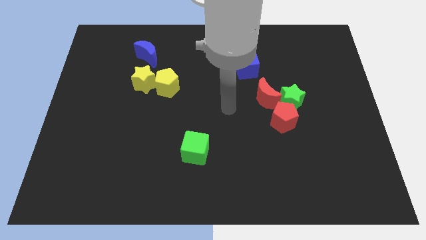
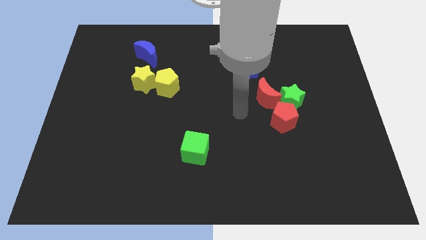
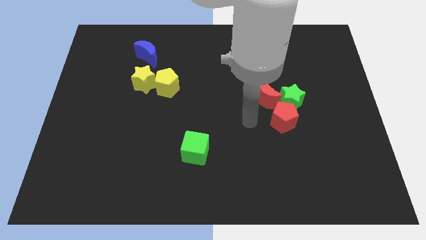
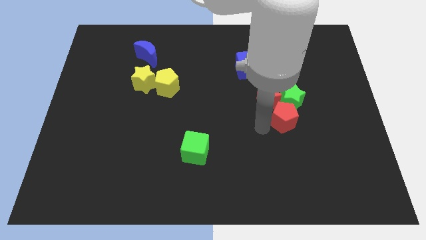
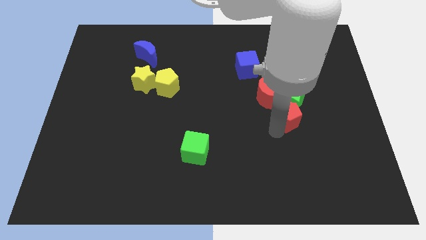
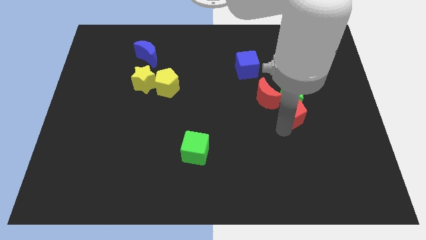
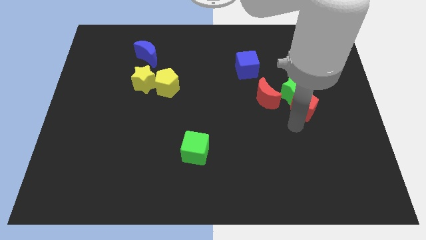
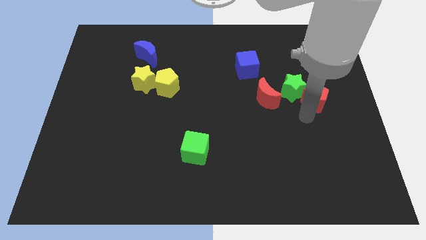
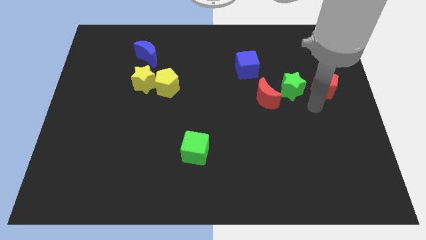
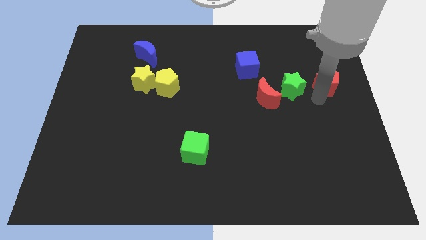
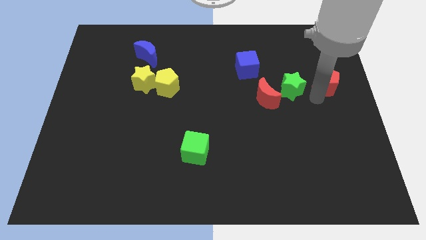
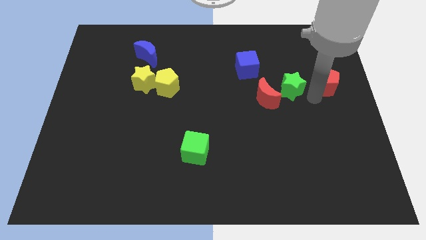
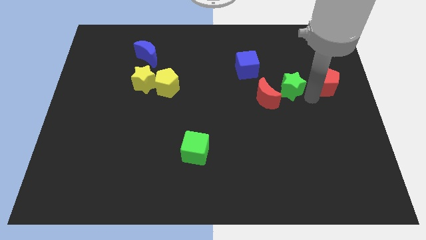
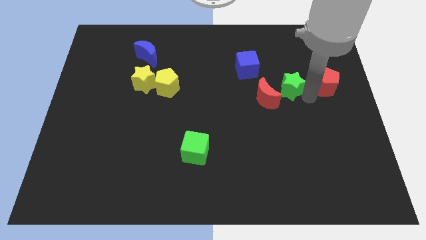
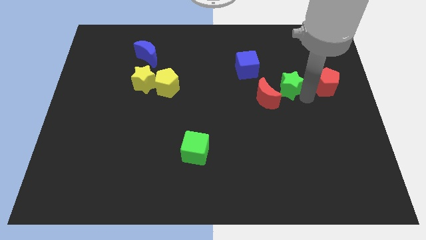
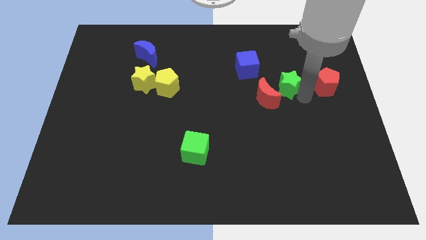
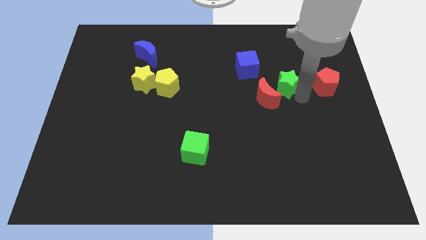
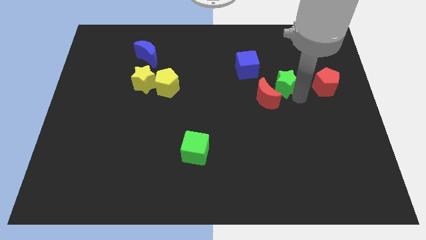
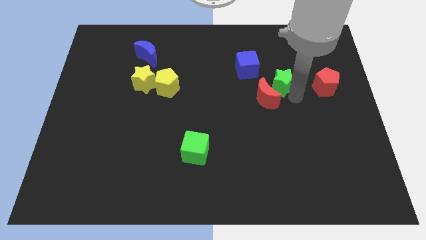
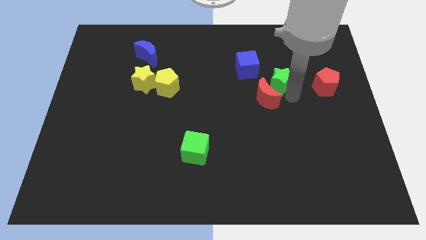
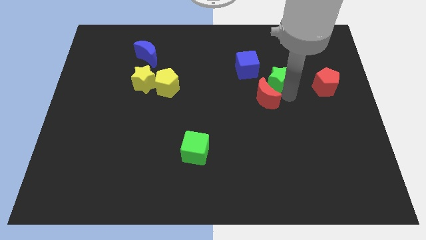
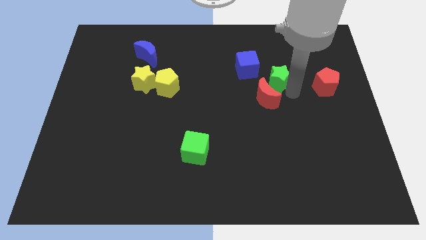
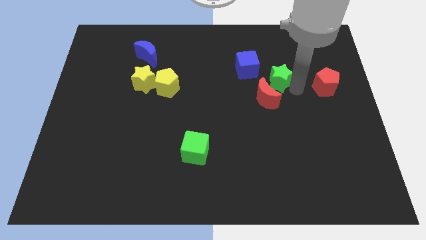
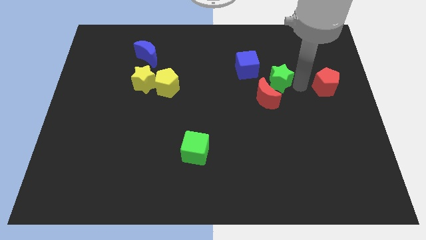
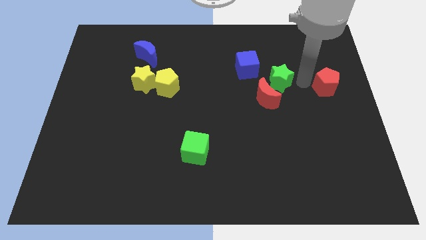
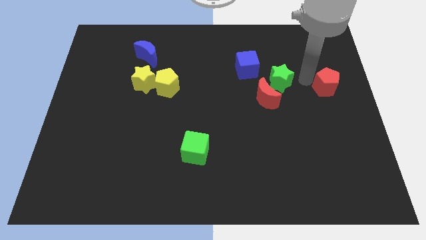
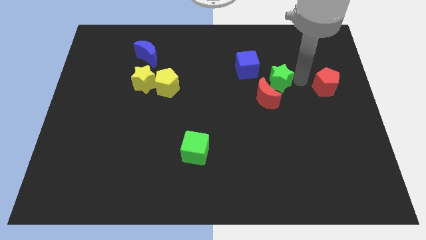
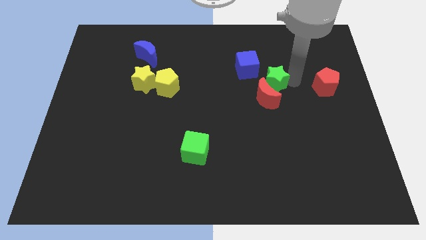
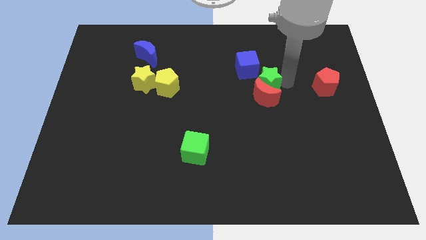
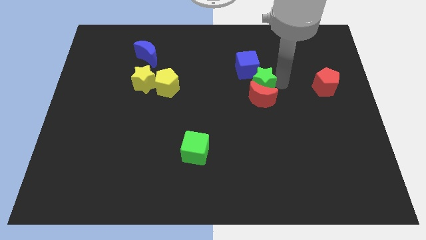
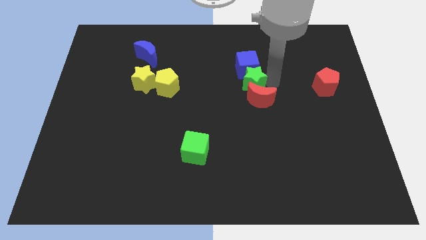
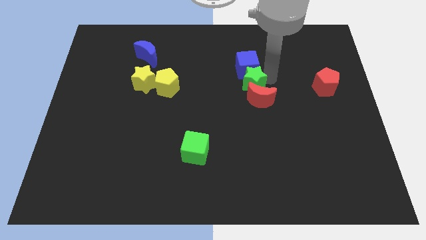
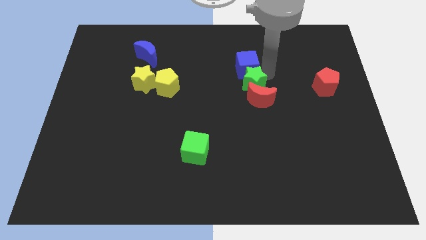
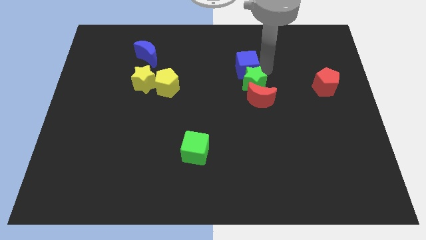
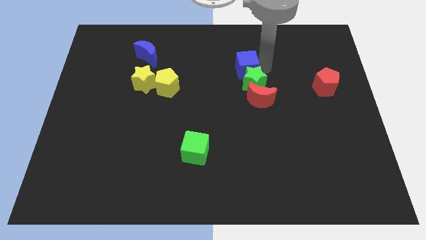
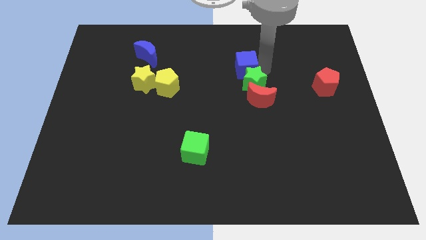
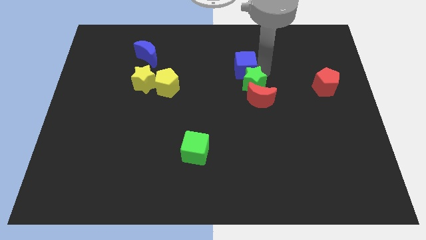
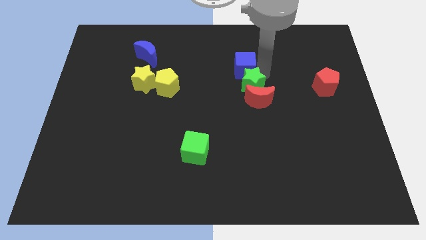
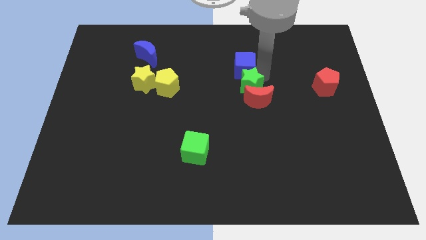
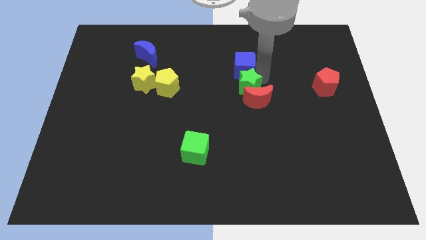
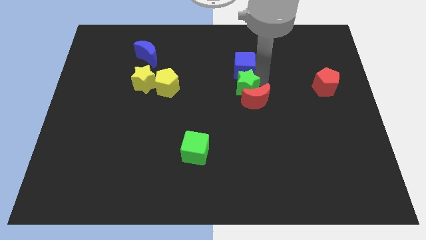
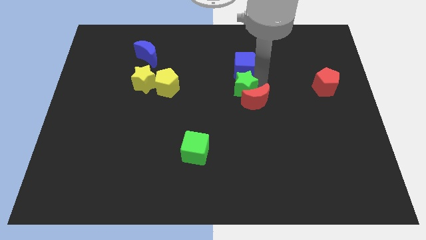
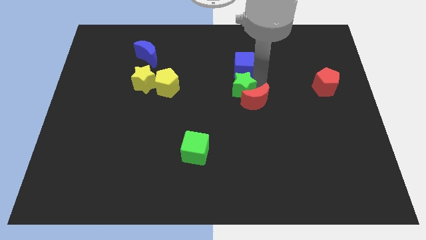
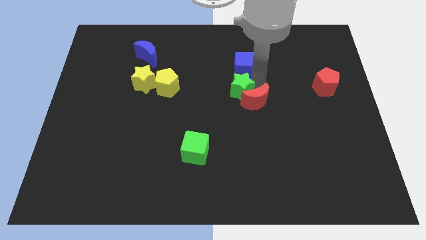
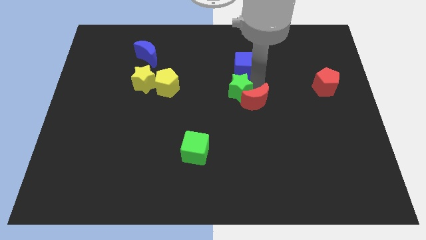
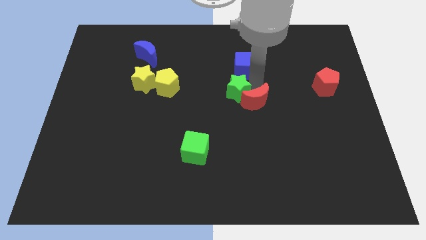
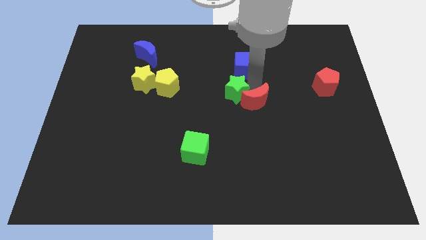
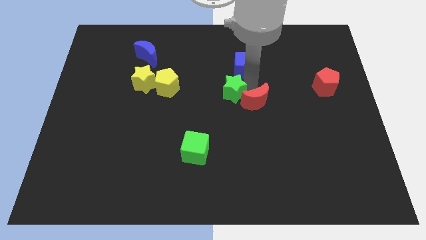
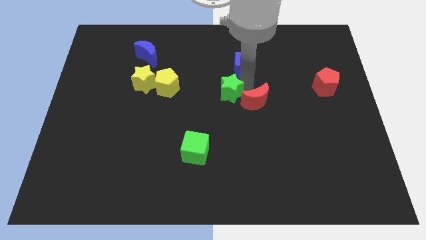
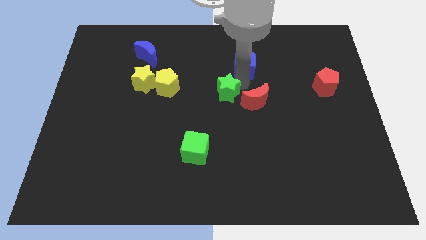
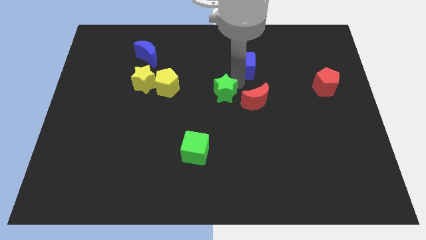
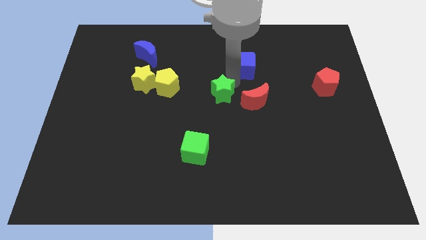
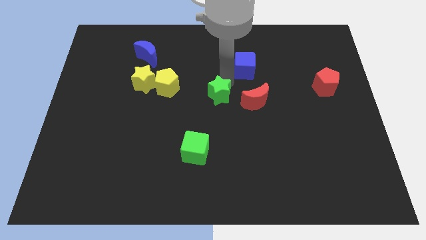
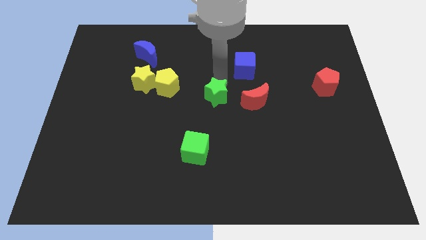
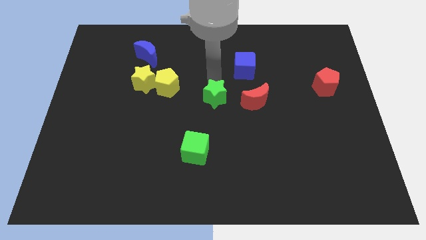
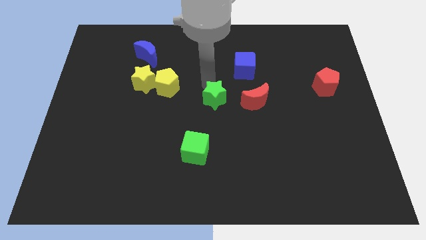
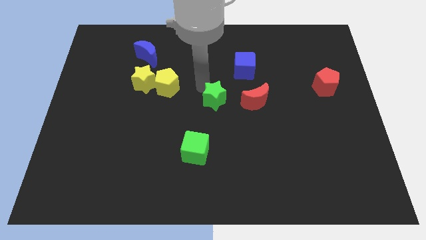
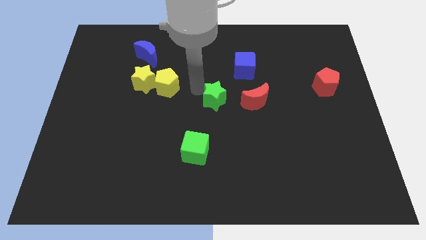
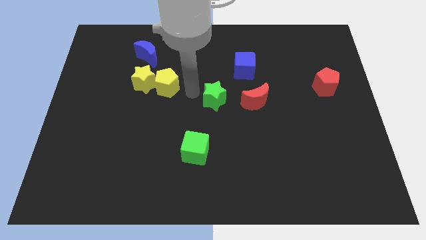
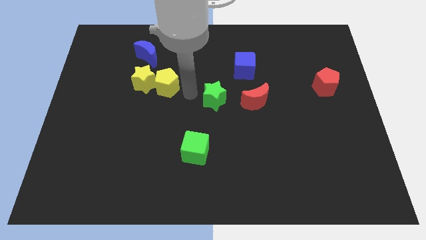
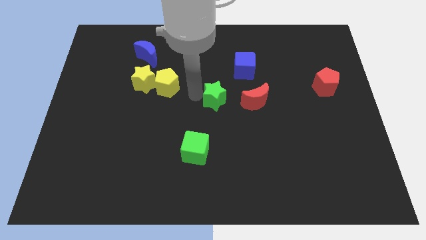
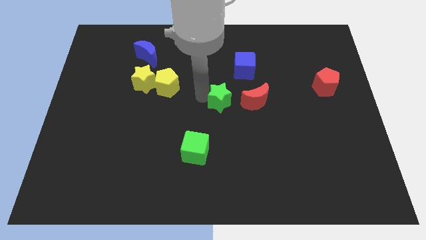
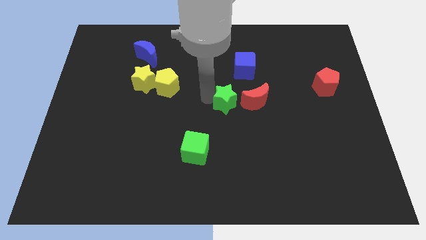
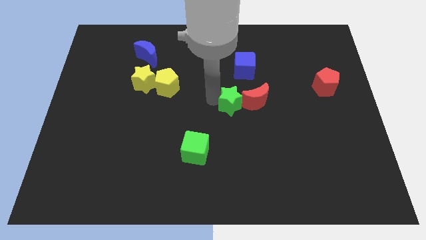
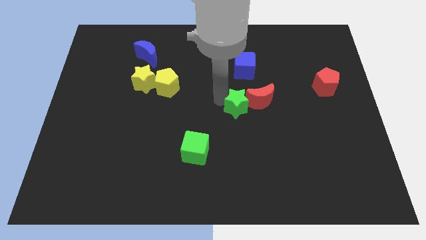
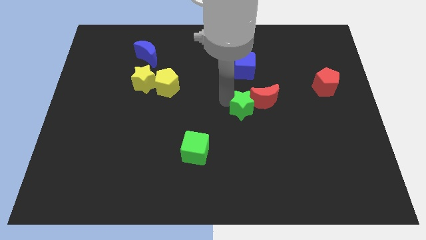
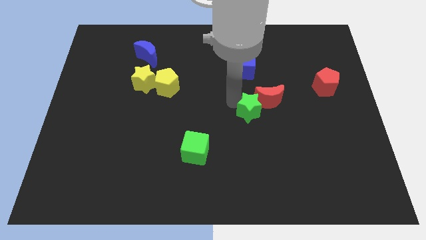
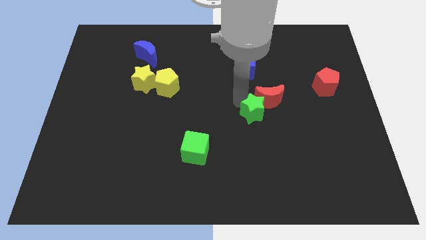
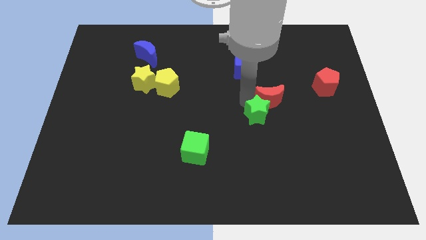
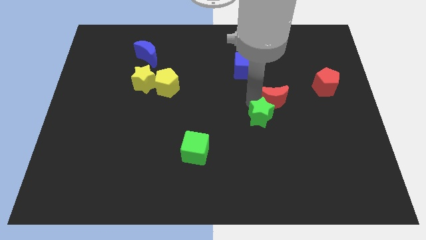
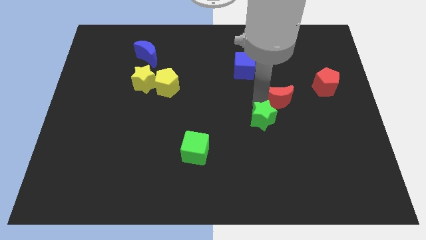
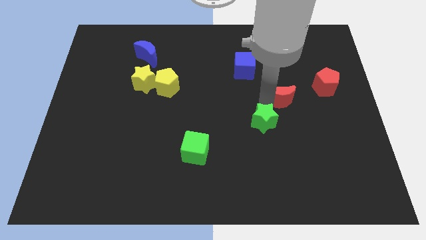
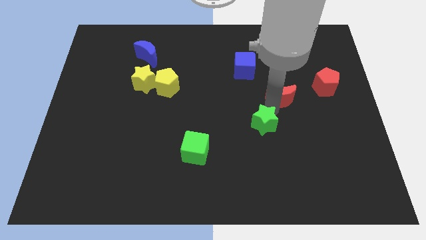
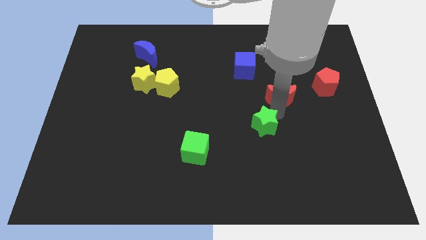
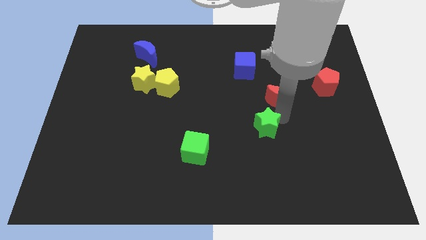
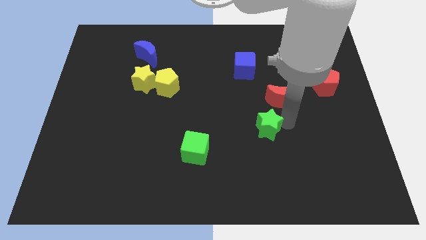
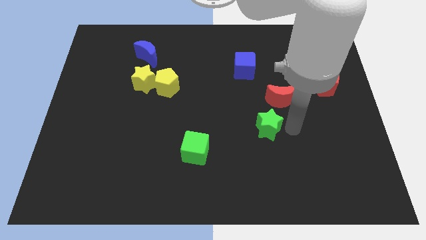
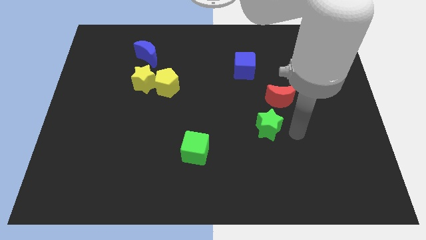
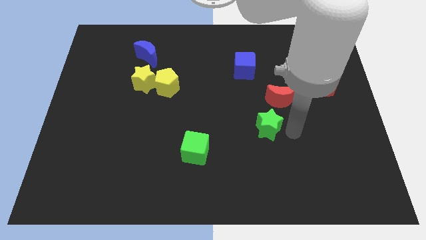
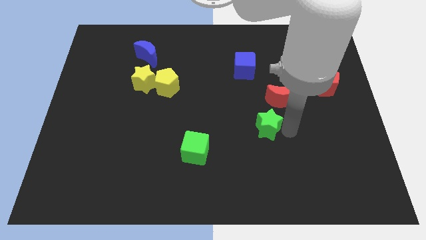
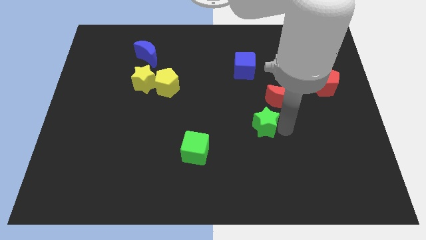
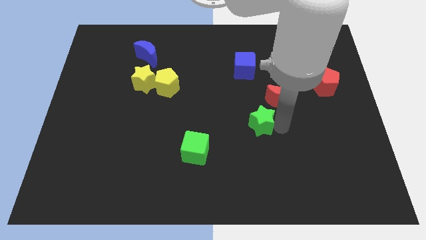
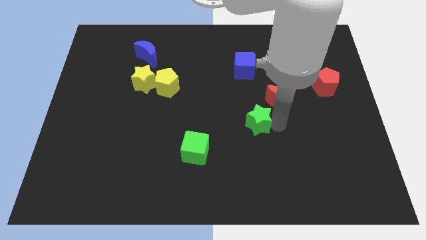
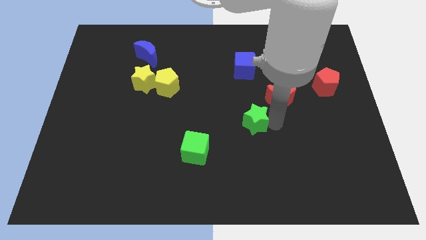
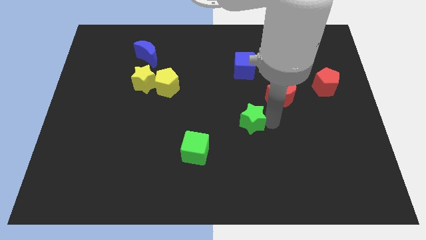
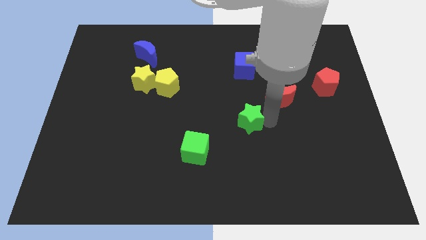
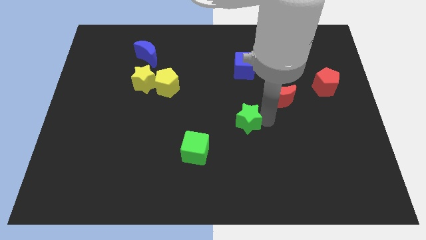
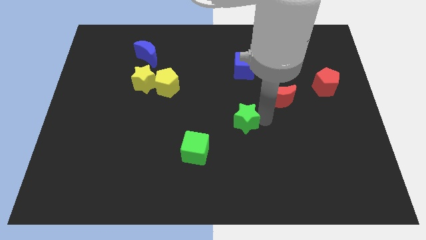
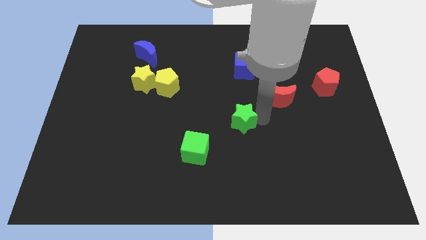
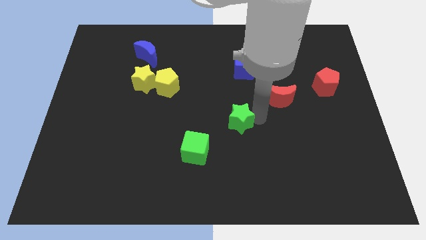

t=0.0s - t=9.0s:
put the green star diagonally up and to the right of the green cube
